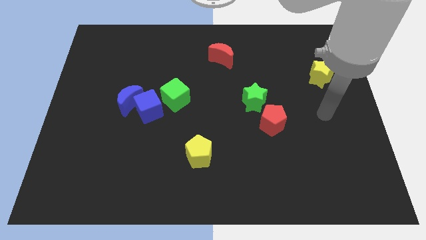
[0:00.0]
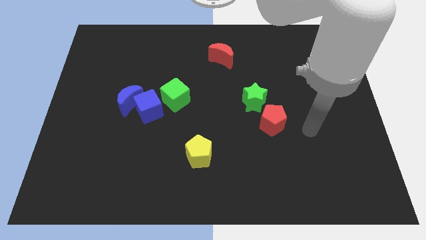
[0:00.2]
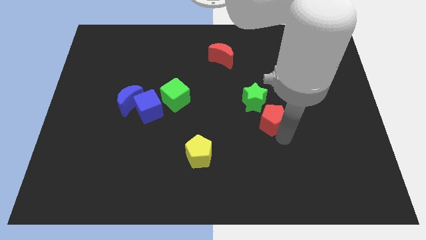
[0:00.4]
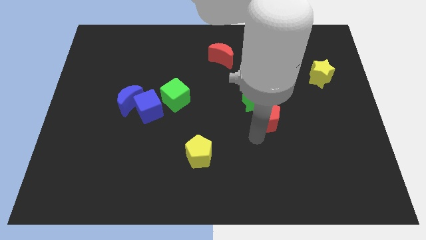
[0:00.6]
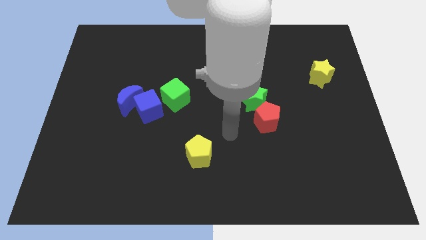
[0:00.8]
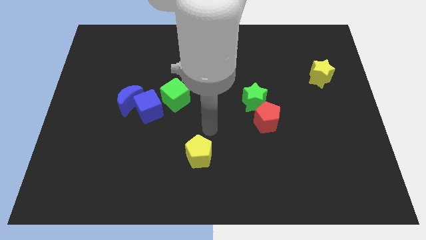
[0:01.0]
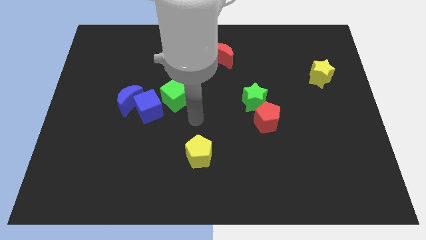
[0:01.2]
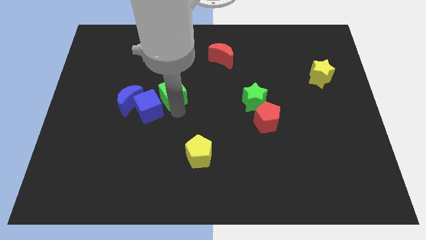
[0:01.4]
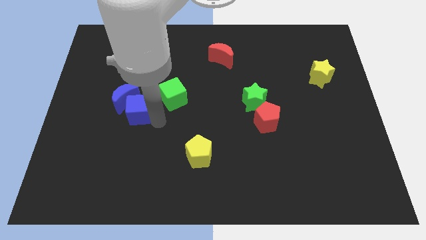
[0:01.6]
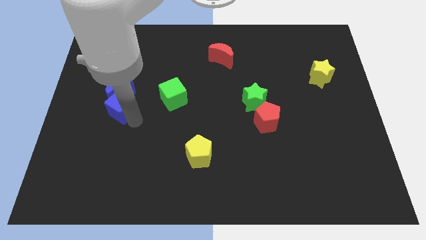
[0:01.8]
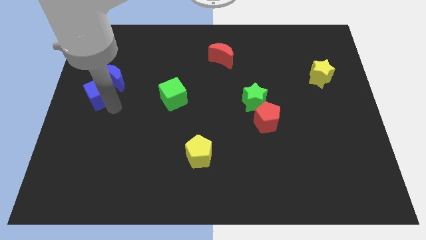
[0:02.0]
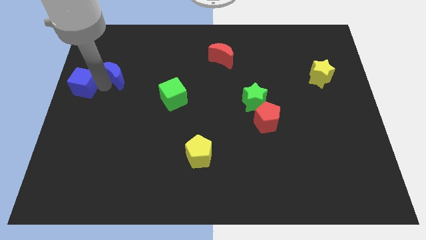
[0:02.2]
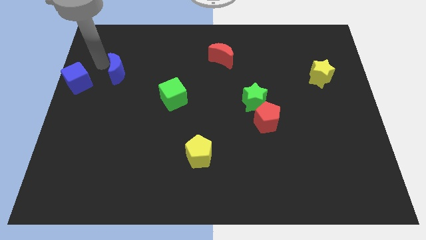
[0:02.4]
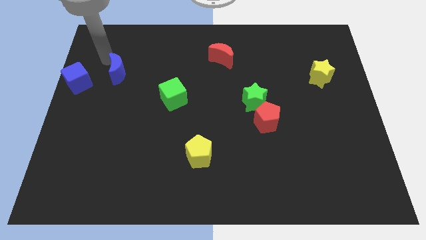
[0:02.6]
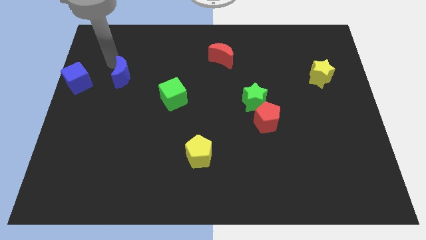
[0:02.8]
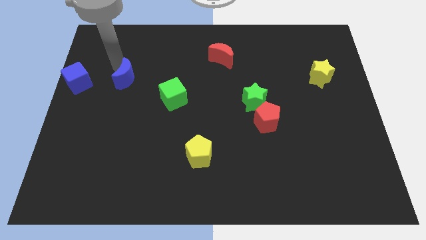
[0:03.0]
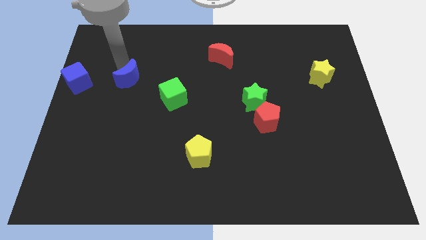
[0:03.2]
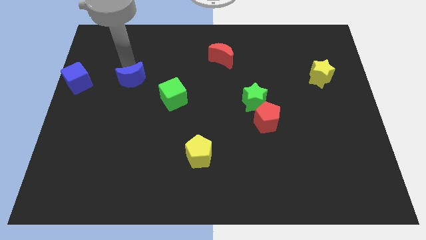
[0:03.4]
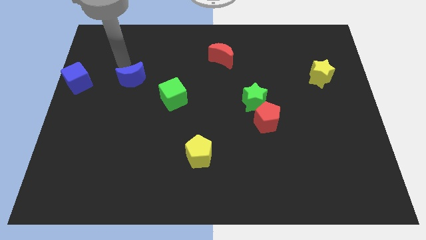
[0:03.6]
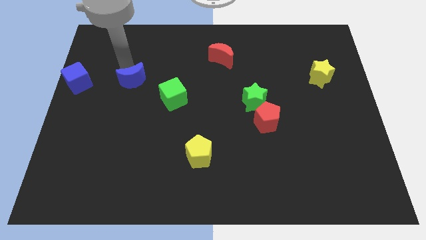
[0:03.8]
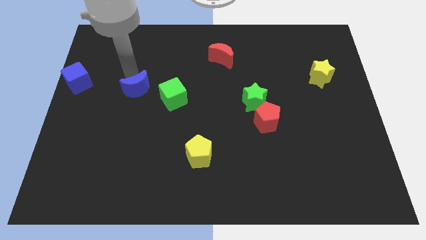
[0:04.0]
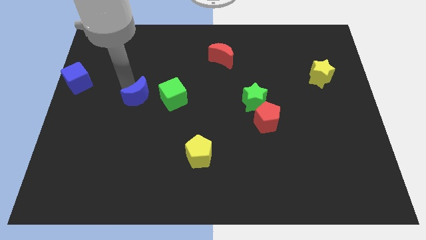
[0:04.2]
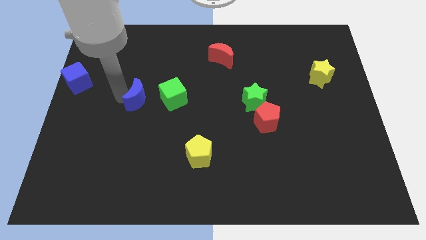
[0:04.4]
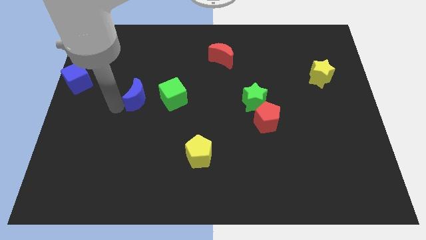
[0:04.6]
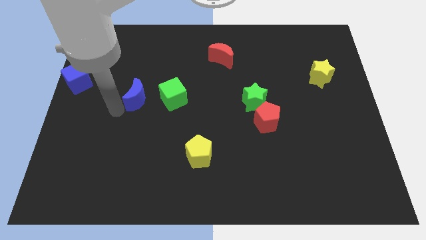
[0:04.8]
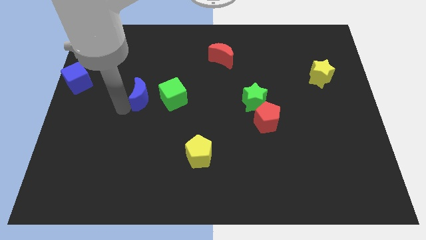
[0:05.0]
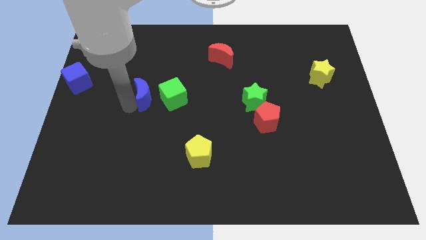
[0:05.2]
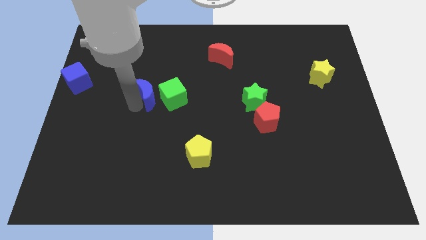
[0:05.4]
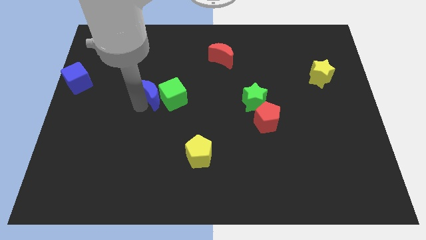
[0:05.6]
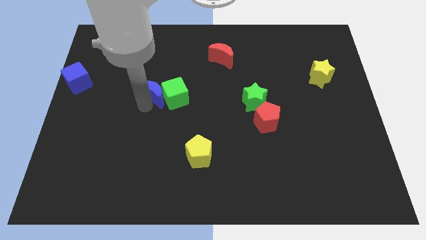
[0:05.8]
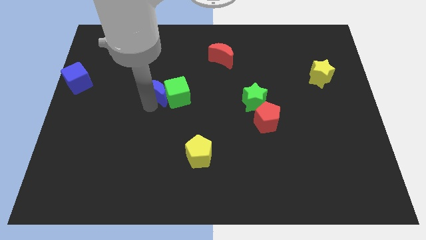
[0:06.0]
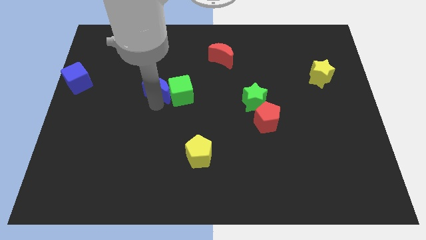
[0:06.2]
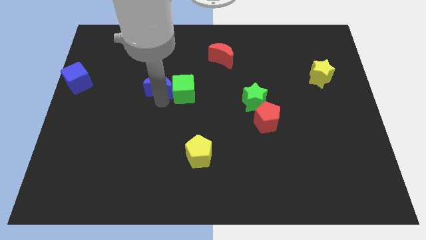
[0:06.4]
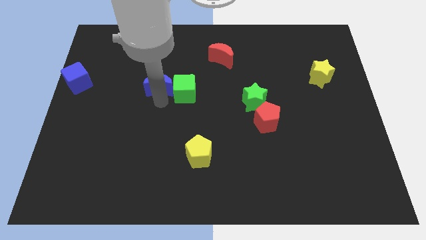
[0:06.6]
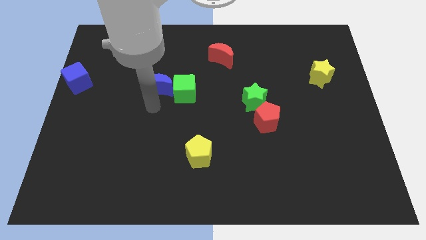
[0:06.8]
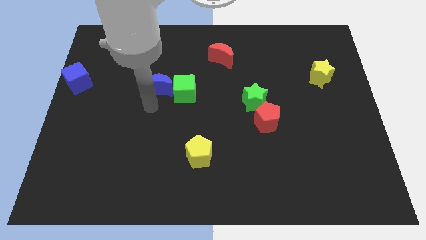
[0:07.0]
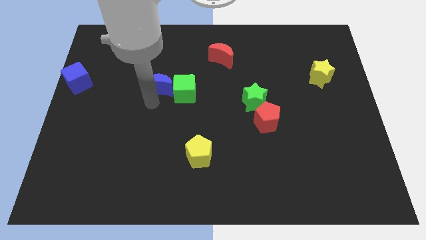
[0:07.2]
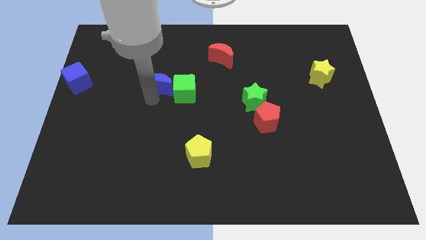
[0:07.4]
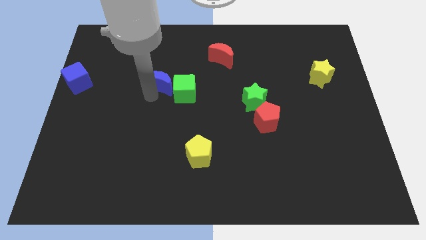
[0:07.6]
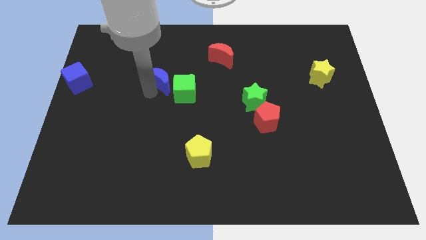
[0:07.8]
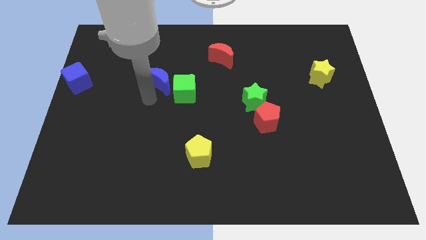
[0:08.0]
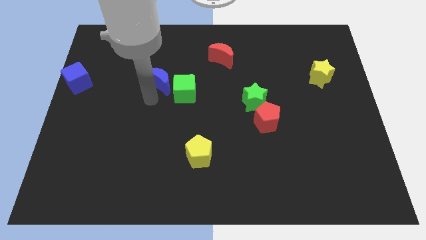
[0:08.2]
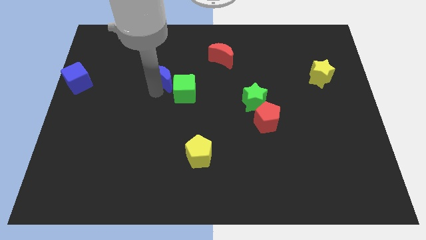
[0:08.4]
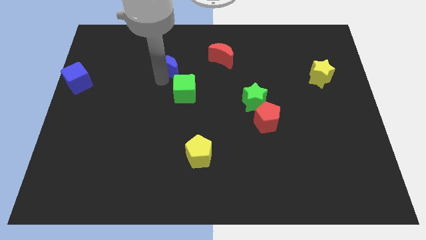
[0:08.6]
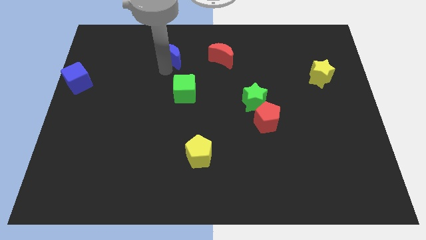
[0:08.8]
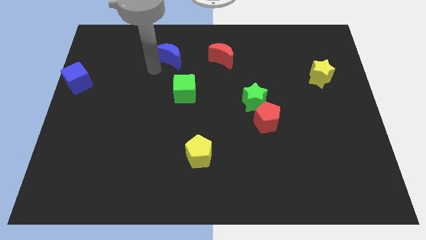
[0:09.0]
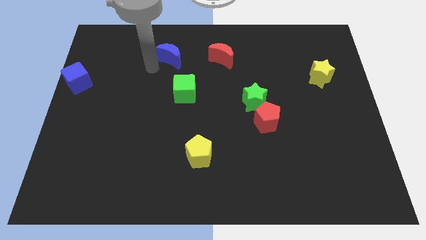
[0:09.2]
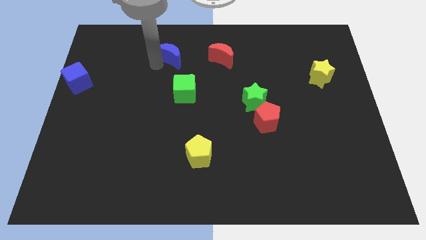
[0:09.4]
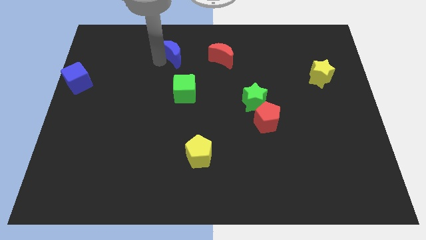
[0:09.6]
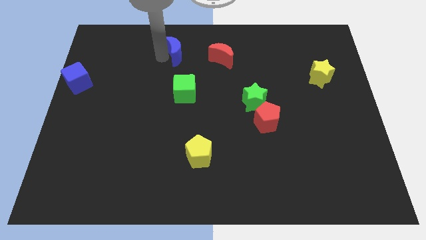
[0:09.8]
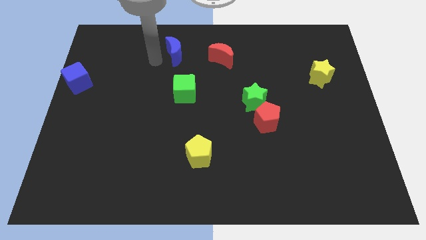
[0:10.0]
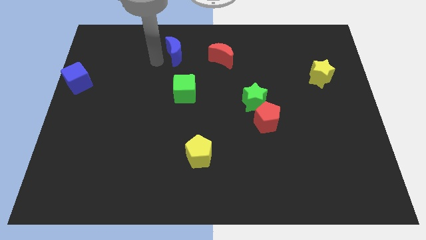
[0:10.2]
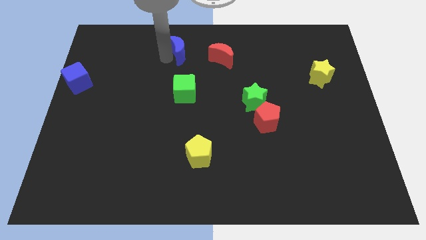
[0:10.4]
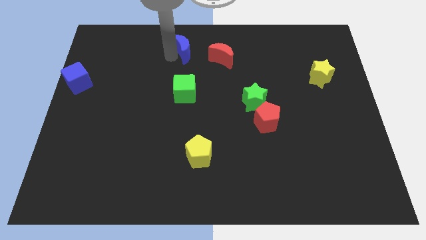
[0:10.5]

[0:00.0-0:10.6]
slide the blue moon to the top
